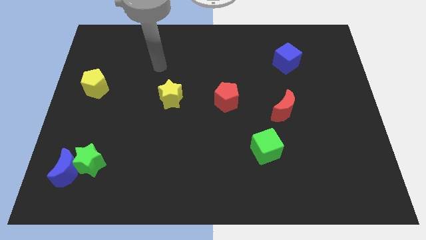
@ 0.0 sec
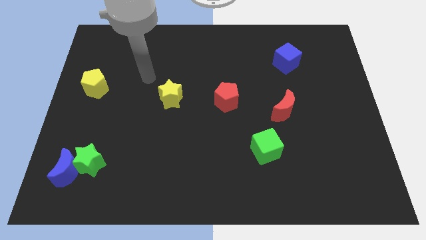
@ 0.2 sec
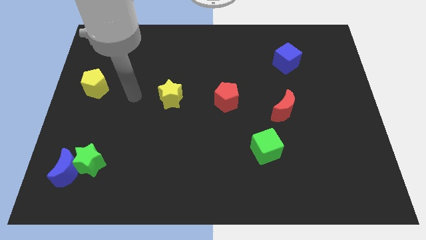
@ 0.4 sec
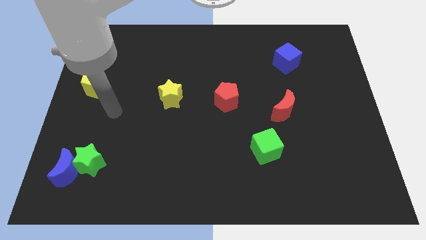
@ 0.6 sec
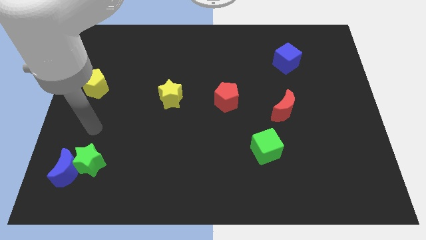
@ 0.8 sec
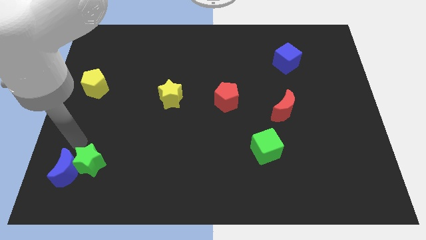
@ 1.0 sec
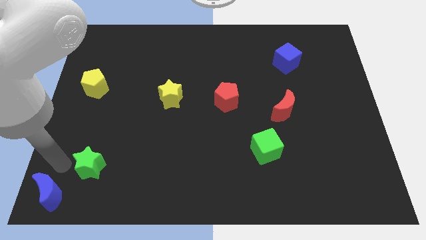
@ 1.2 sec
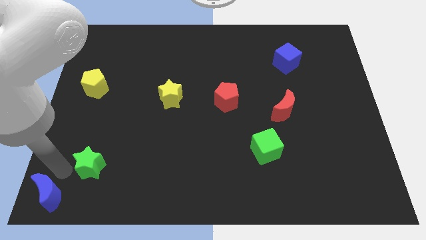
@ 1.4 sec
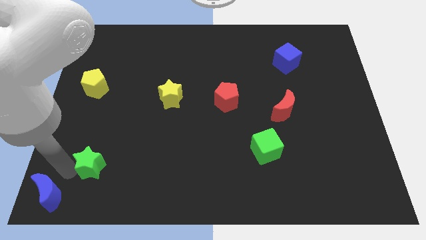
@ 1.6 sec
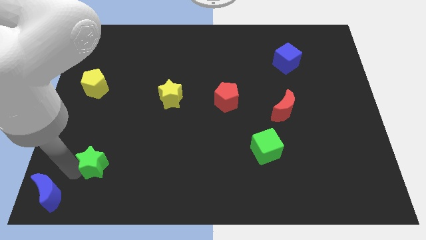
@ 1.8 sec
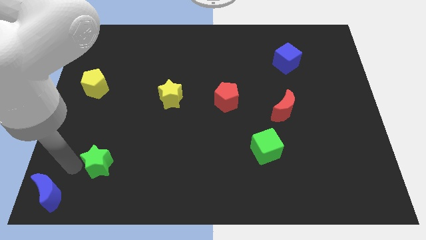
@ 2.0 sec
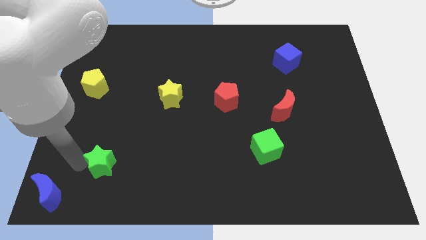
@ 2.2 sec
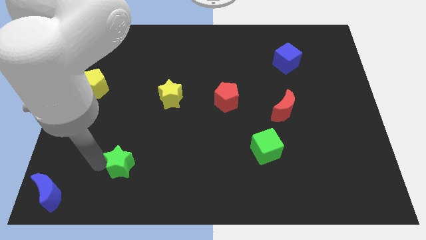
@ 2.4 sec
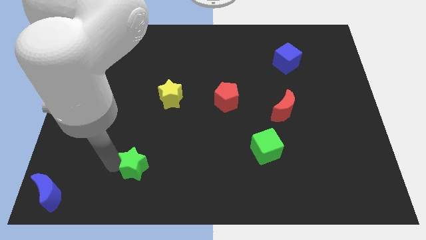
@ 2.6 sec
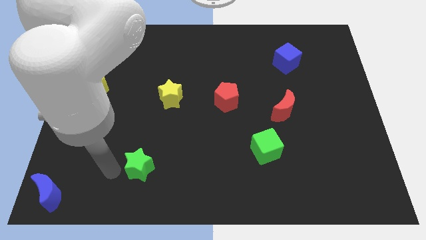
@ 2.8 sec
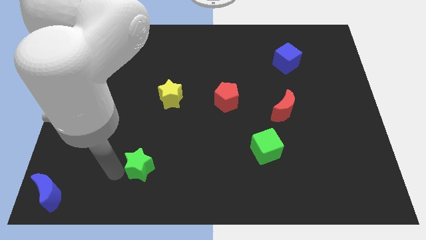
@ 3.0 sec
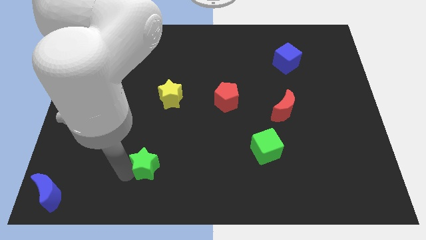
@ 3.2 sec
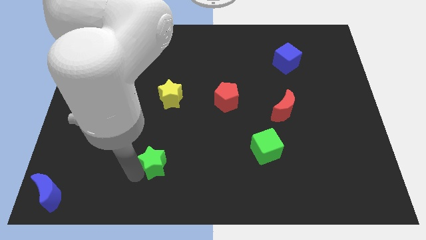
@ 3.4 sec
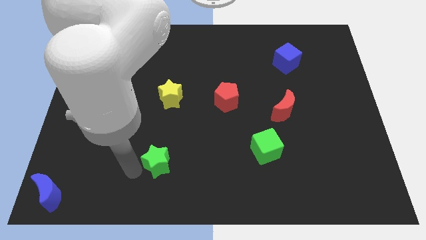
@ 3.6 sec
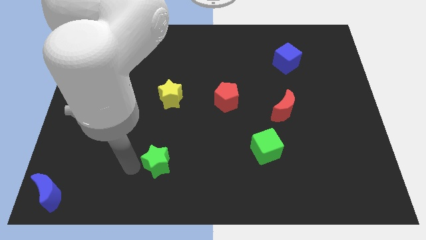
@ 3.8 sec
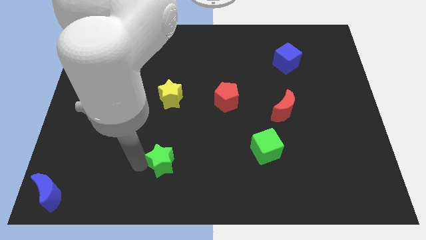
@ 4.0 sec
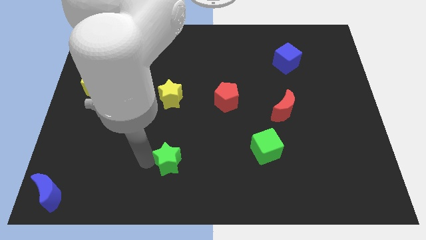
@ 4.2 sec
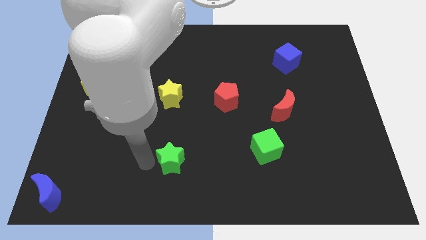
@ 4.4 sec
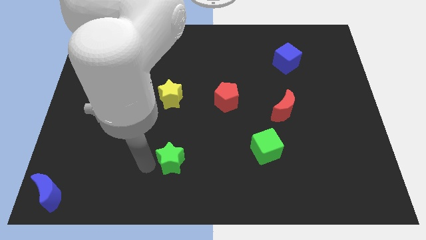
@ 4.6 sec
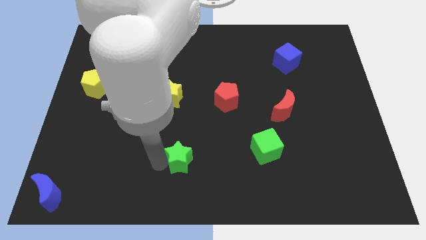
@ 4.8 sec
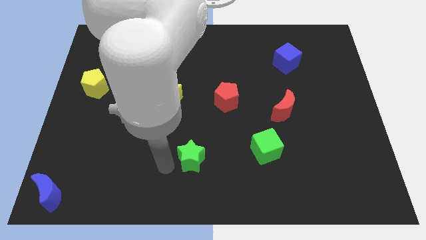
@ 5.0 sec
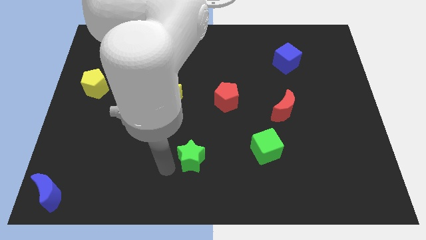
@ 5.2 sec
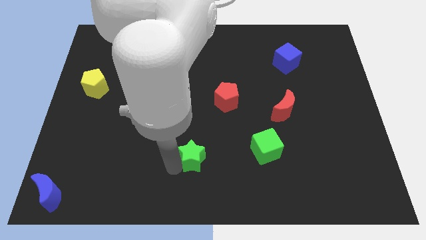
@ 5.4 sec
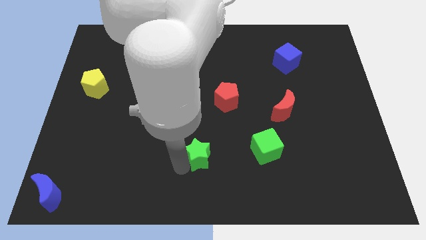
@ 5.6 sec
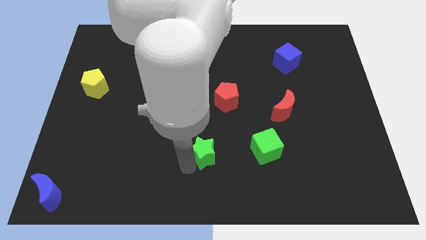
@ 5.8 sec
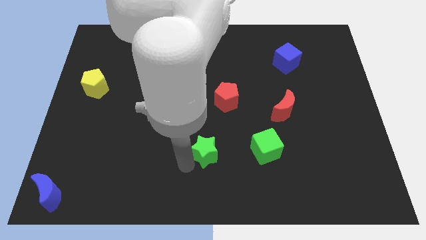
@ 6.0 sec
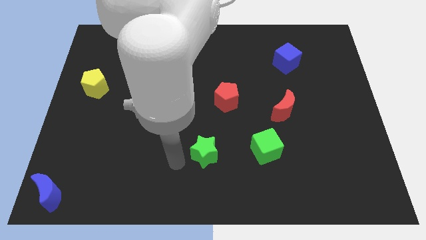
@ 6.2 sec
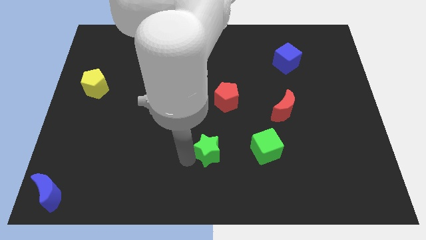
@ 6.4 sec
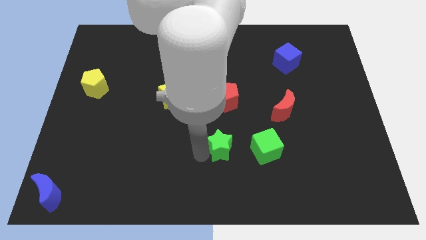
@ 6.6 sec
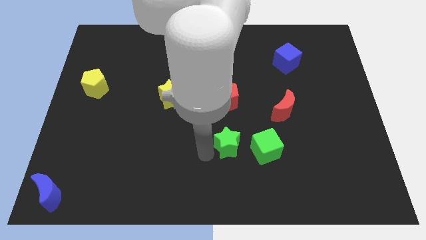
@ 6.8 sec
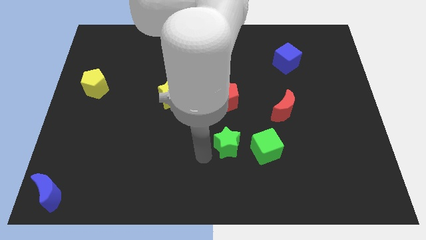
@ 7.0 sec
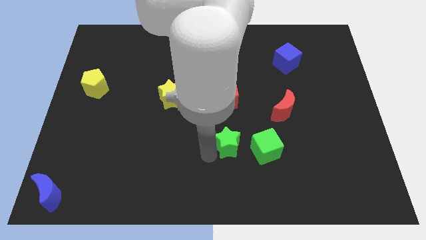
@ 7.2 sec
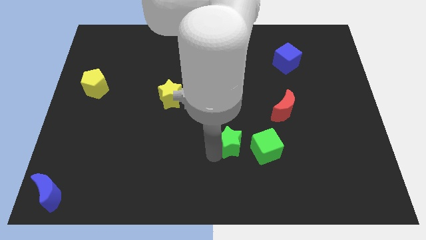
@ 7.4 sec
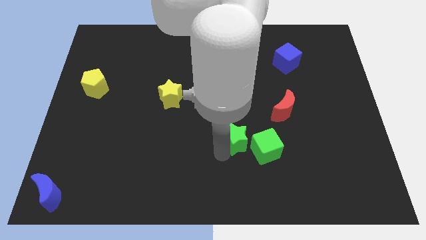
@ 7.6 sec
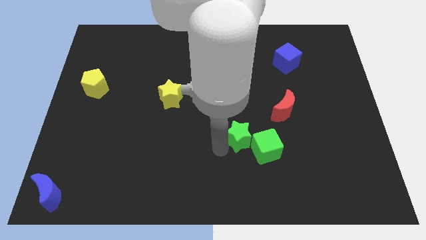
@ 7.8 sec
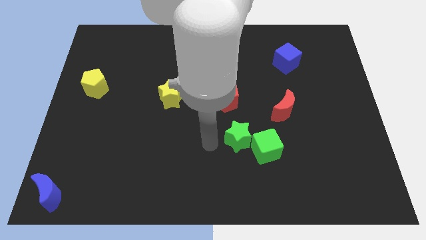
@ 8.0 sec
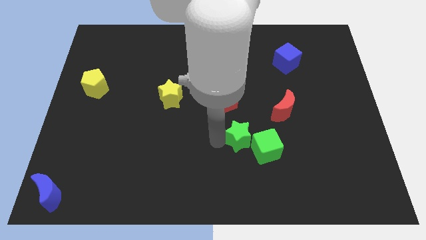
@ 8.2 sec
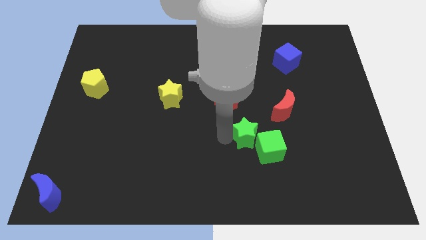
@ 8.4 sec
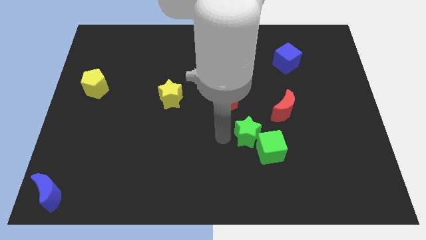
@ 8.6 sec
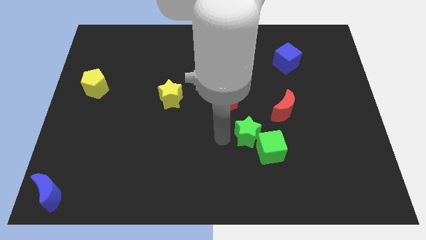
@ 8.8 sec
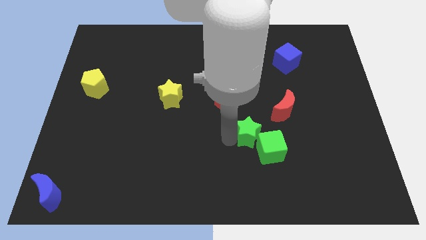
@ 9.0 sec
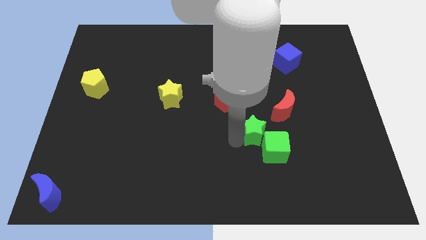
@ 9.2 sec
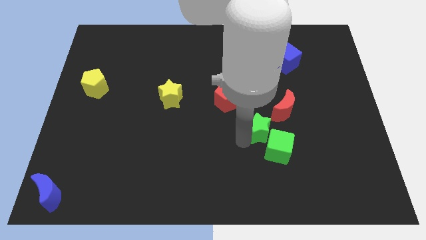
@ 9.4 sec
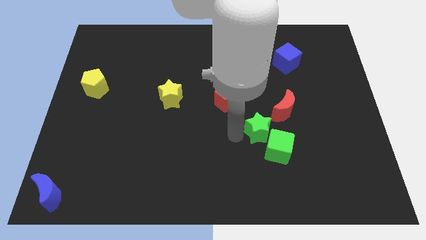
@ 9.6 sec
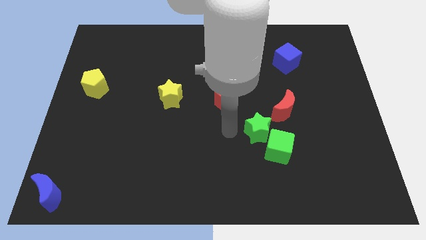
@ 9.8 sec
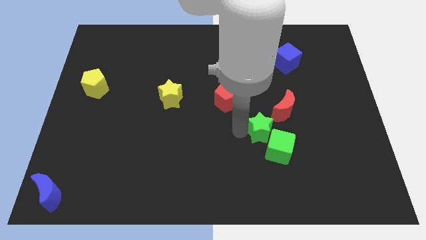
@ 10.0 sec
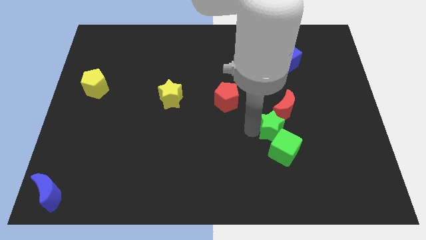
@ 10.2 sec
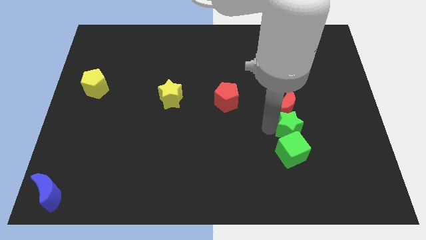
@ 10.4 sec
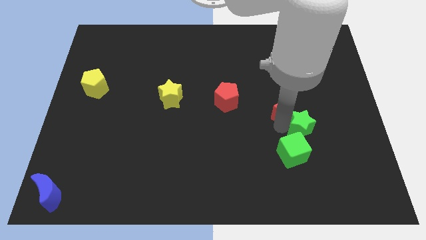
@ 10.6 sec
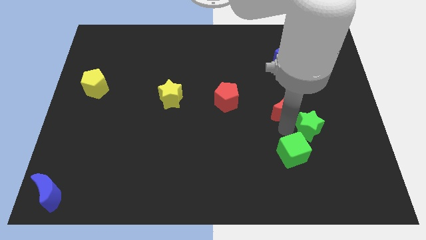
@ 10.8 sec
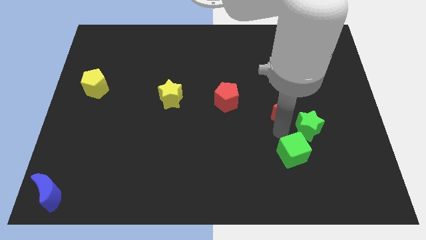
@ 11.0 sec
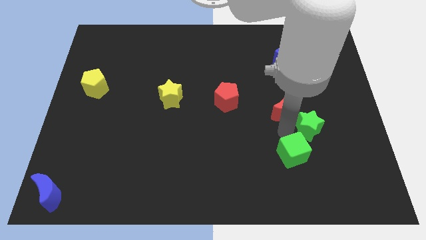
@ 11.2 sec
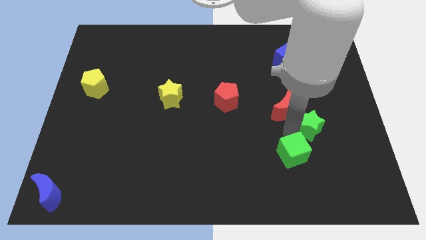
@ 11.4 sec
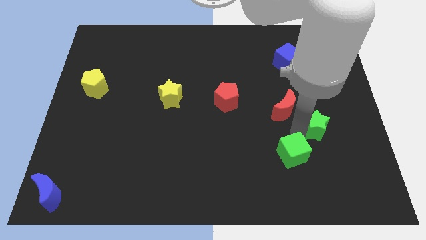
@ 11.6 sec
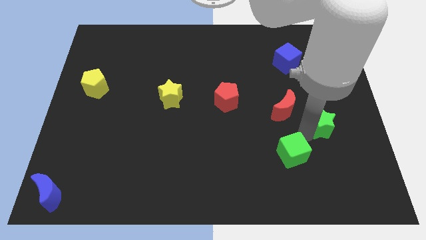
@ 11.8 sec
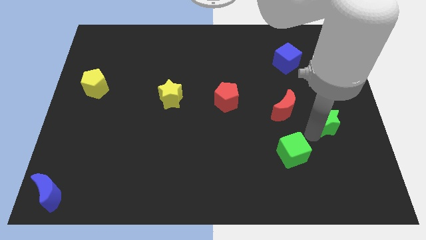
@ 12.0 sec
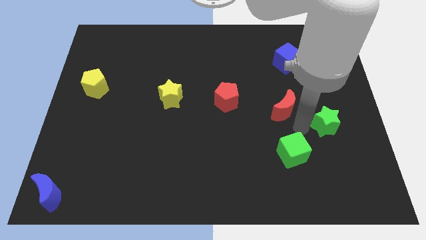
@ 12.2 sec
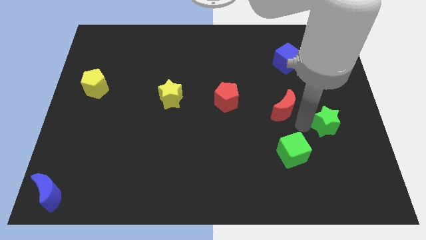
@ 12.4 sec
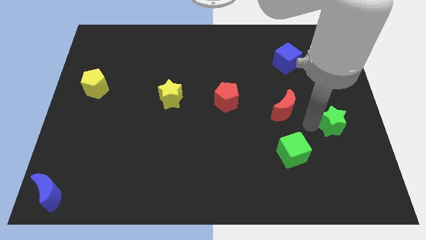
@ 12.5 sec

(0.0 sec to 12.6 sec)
move the green star to the right side of the board
